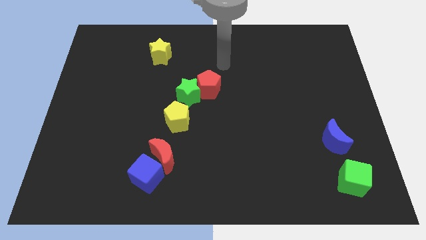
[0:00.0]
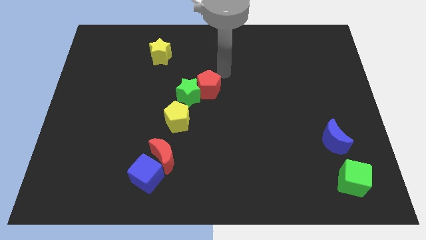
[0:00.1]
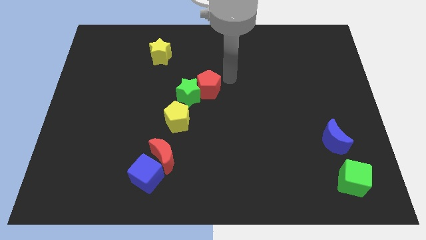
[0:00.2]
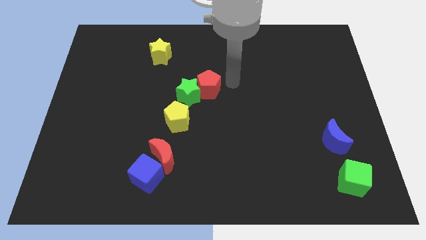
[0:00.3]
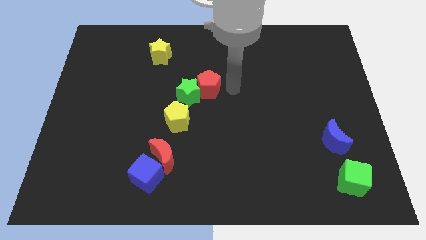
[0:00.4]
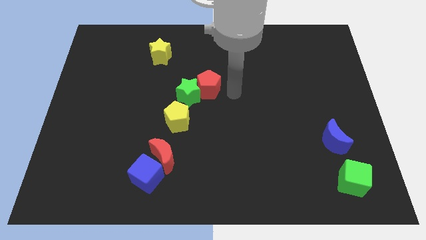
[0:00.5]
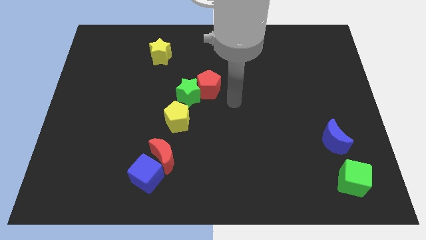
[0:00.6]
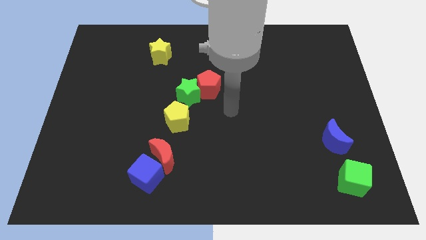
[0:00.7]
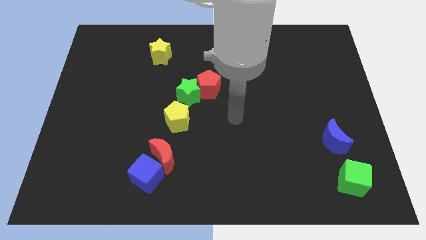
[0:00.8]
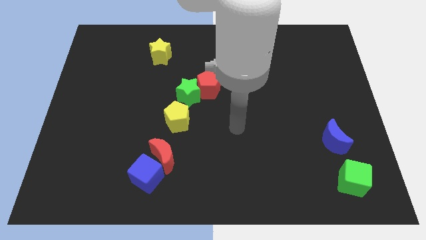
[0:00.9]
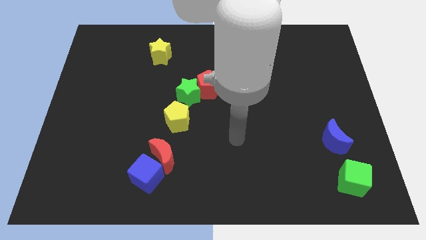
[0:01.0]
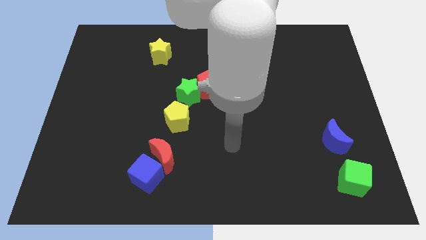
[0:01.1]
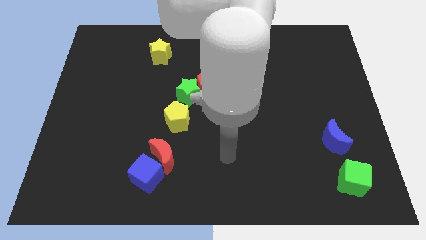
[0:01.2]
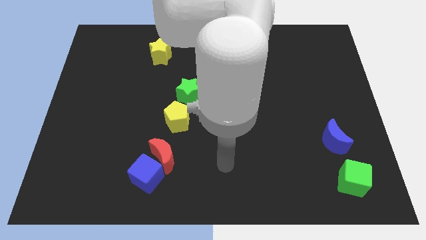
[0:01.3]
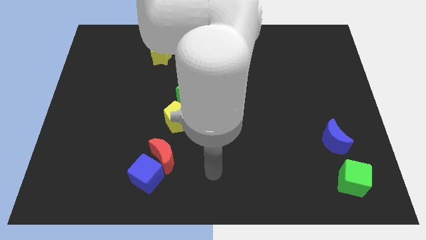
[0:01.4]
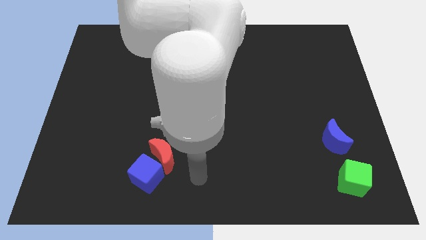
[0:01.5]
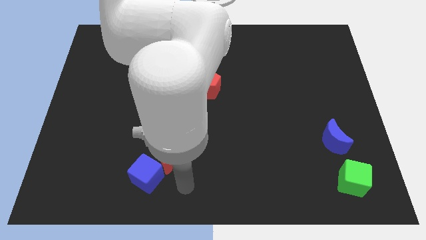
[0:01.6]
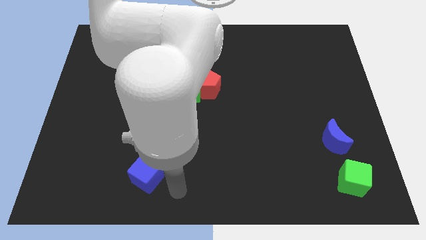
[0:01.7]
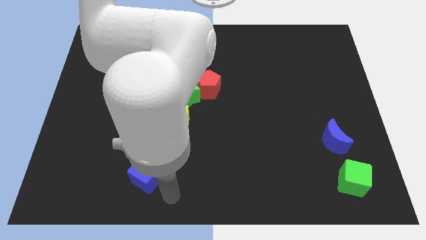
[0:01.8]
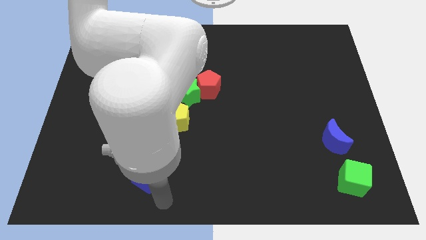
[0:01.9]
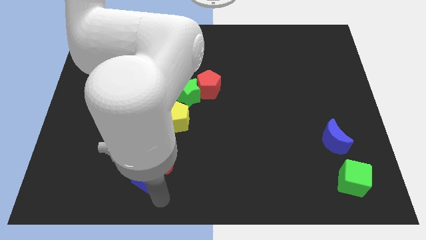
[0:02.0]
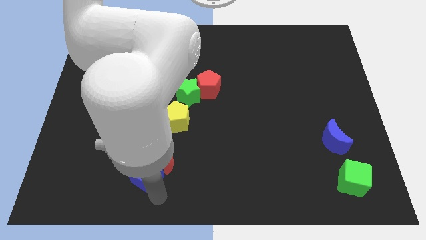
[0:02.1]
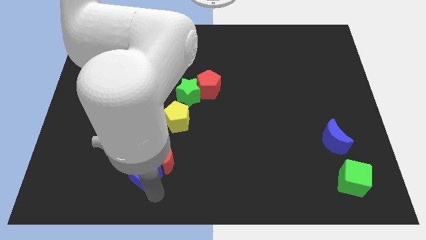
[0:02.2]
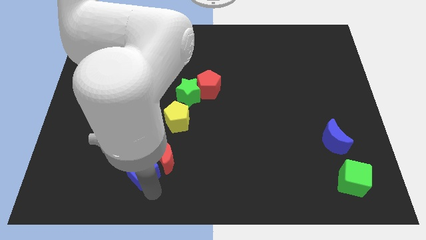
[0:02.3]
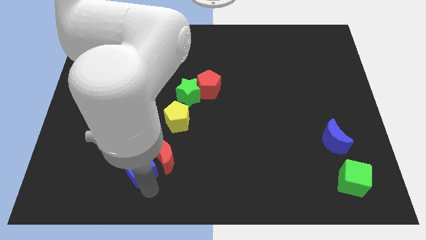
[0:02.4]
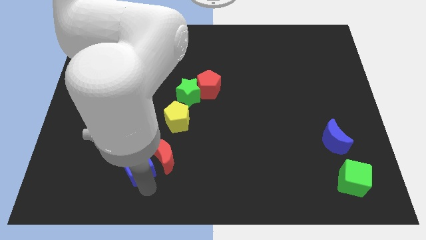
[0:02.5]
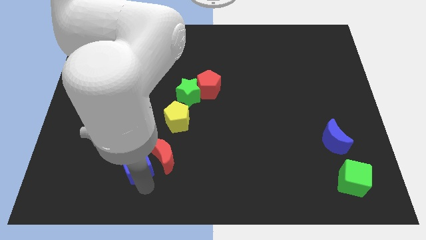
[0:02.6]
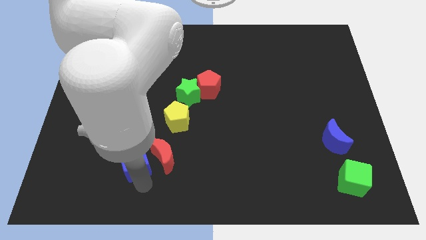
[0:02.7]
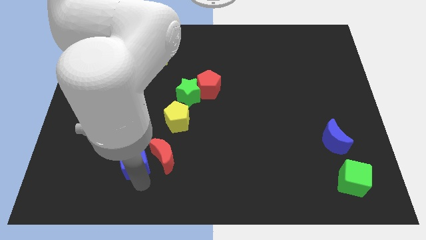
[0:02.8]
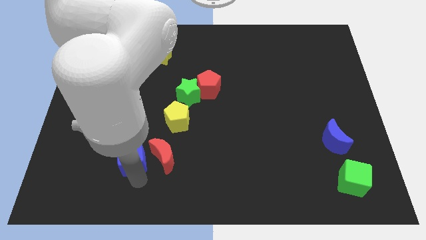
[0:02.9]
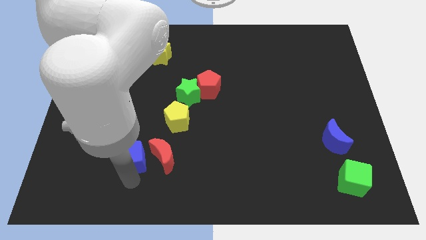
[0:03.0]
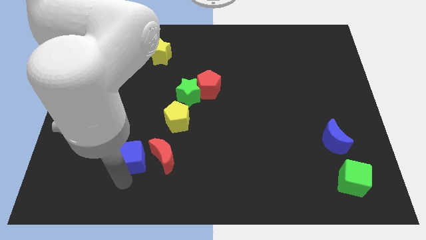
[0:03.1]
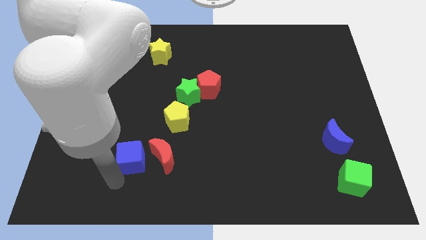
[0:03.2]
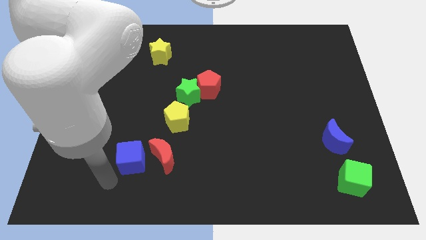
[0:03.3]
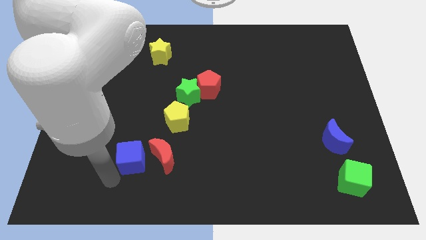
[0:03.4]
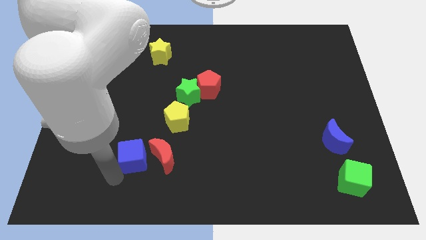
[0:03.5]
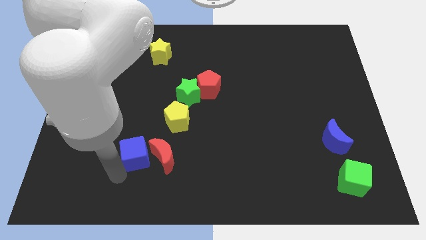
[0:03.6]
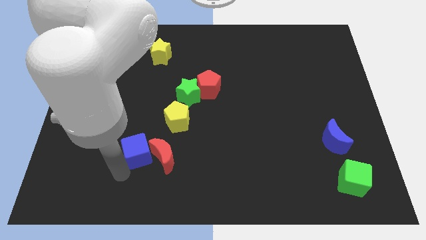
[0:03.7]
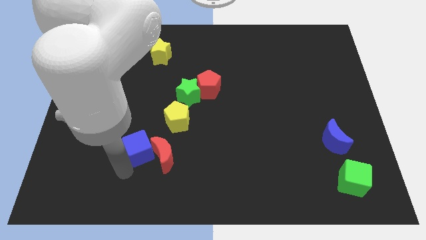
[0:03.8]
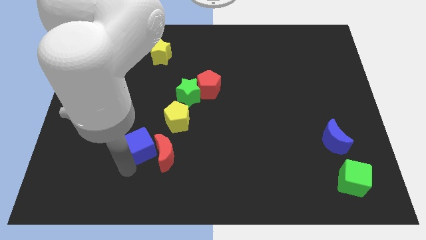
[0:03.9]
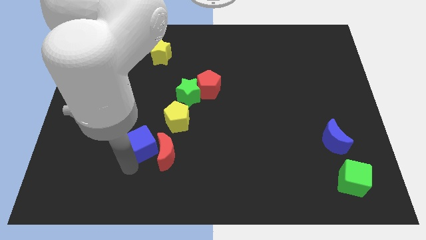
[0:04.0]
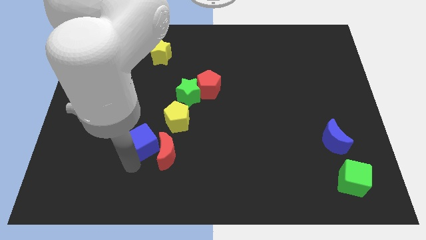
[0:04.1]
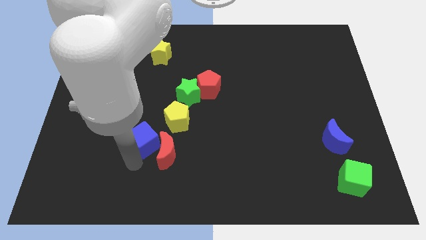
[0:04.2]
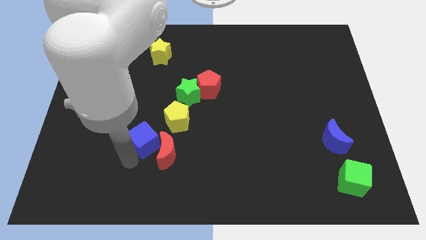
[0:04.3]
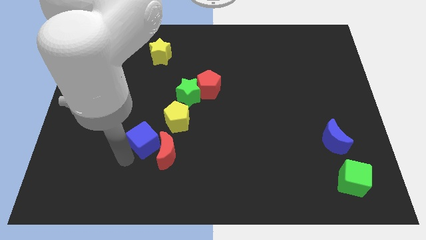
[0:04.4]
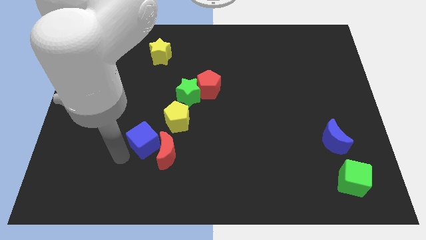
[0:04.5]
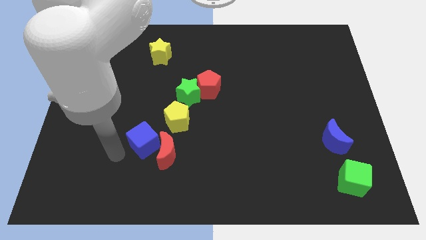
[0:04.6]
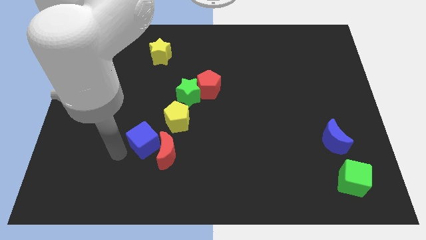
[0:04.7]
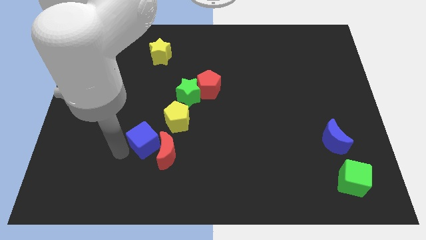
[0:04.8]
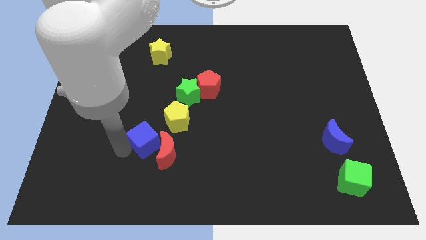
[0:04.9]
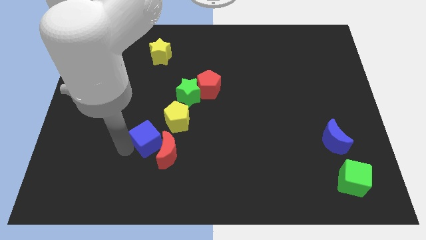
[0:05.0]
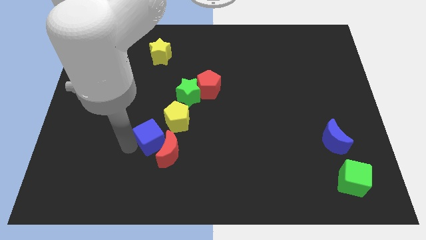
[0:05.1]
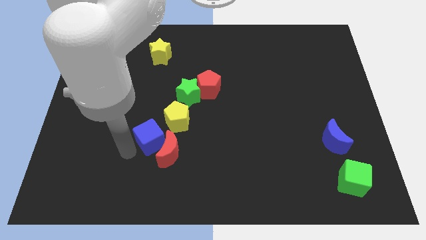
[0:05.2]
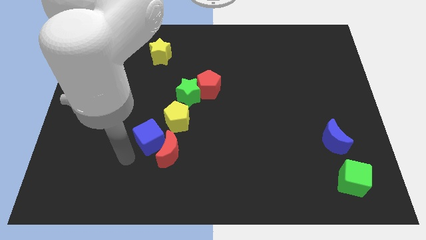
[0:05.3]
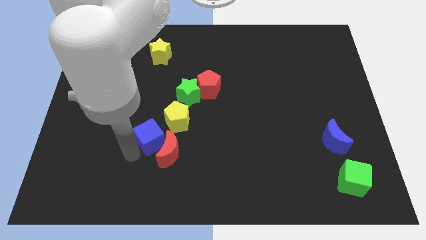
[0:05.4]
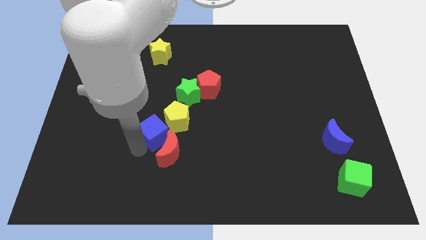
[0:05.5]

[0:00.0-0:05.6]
push the blue cube next to the yellow pentagon

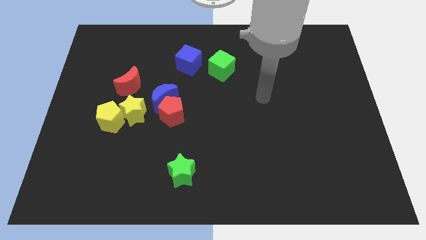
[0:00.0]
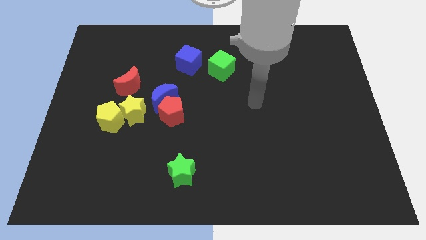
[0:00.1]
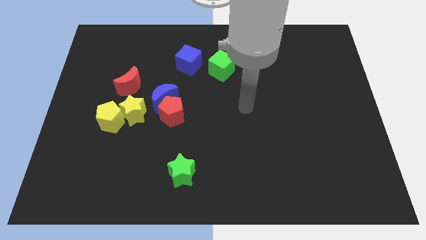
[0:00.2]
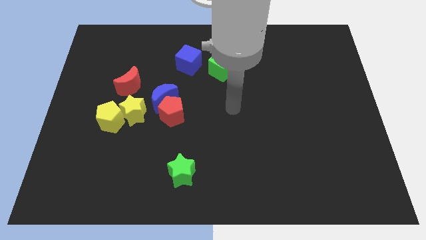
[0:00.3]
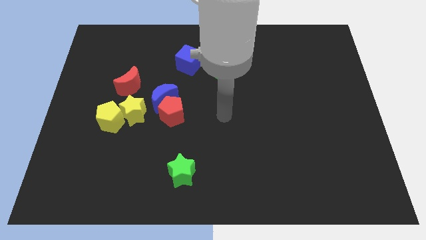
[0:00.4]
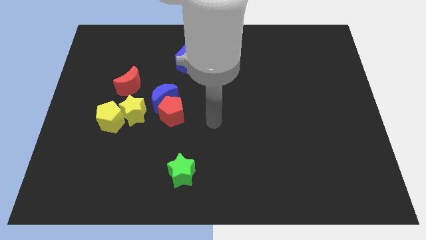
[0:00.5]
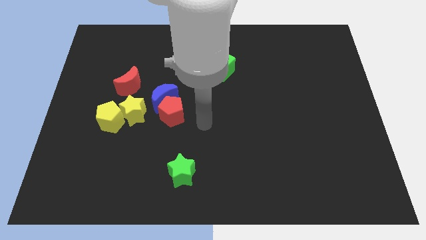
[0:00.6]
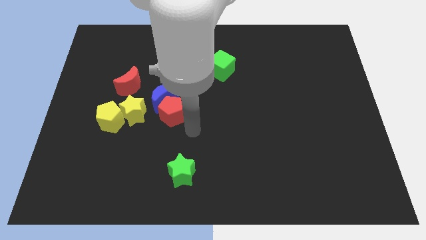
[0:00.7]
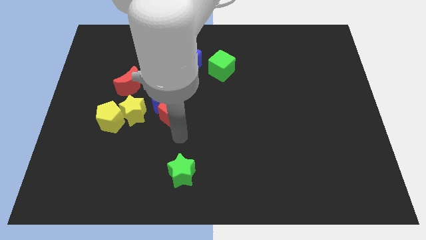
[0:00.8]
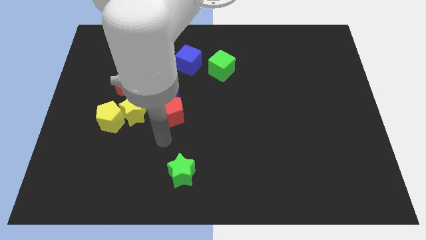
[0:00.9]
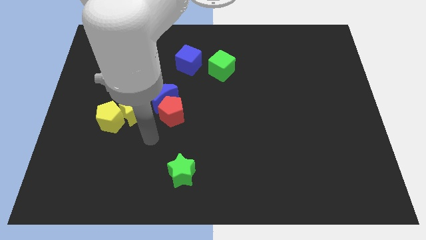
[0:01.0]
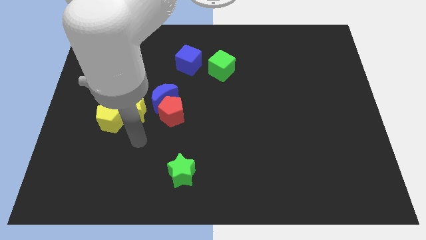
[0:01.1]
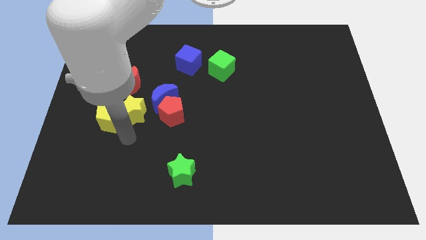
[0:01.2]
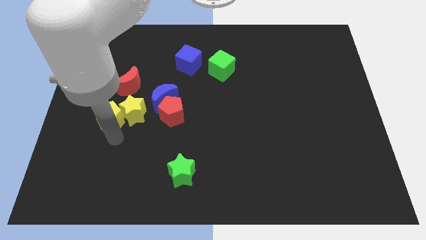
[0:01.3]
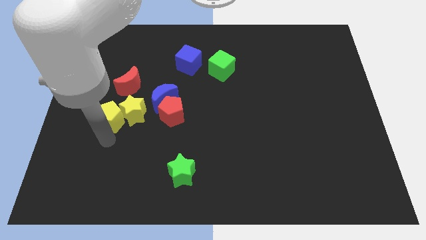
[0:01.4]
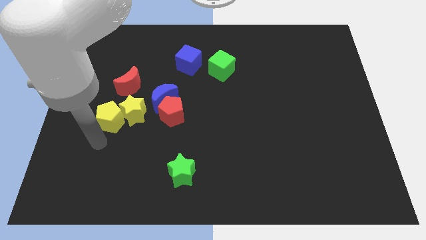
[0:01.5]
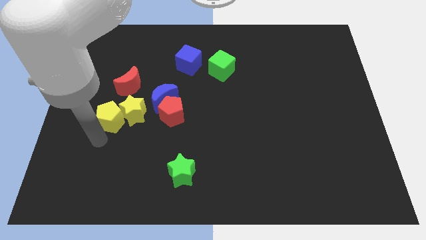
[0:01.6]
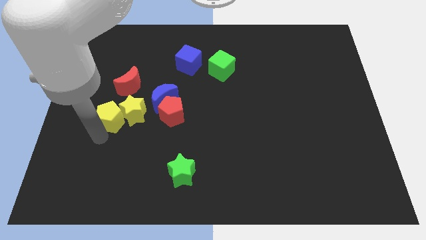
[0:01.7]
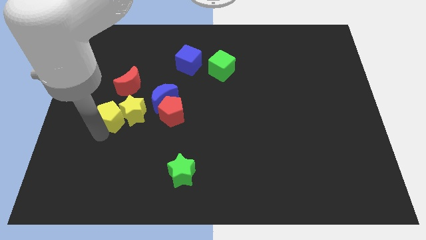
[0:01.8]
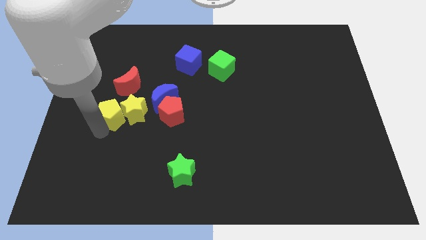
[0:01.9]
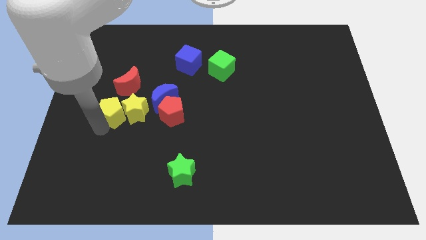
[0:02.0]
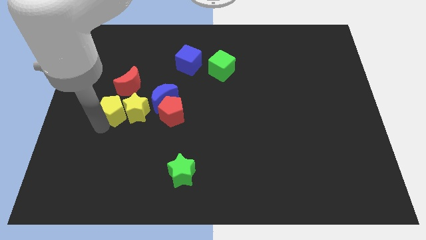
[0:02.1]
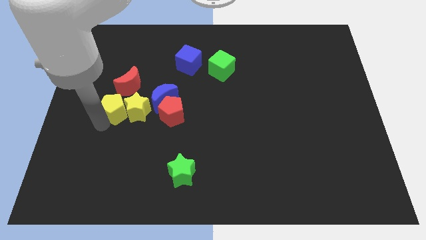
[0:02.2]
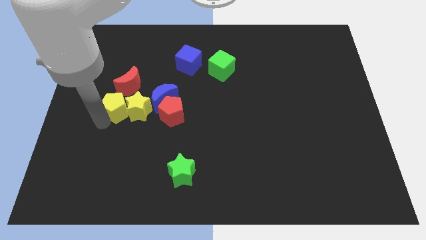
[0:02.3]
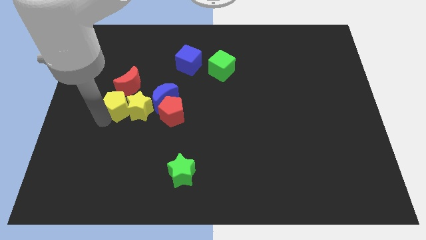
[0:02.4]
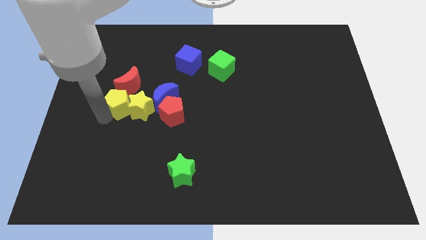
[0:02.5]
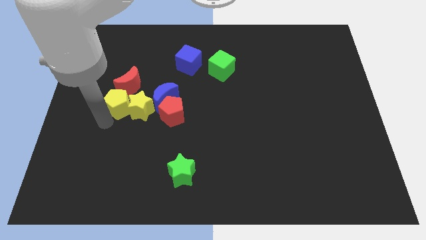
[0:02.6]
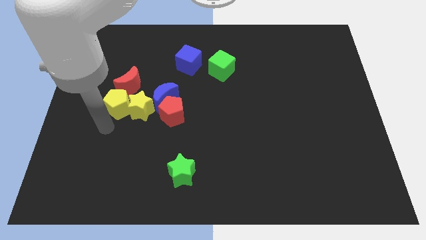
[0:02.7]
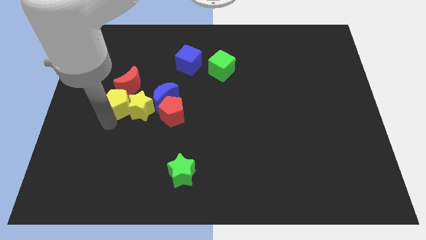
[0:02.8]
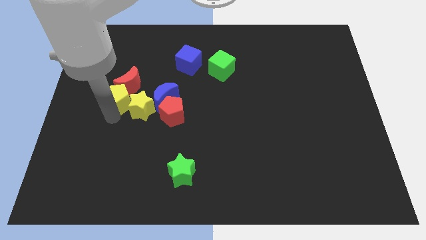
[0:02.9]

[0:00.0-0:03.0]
put the yellow pentagon next to the red moon
